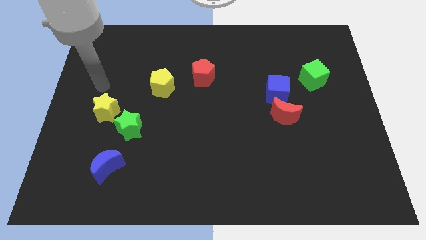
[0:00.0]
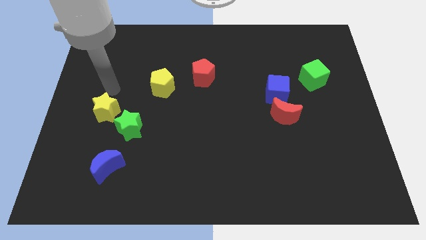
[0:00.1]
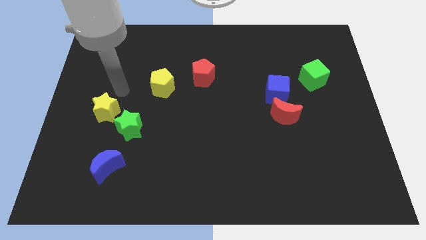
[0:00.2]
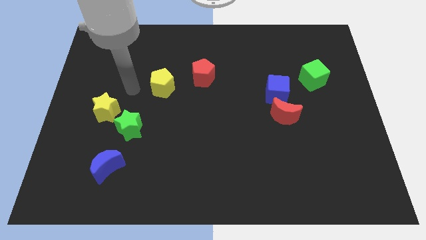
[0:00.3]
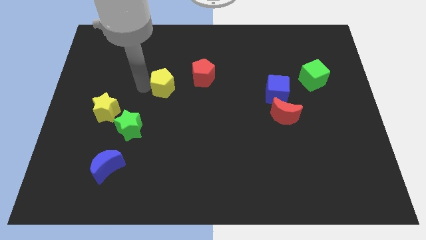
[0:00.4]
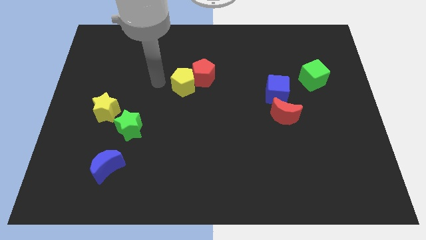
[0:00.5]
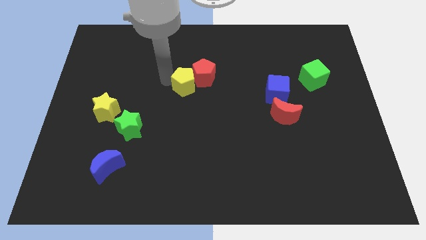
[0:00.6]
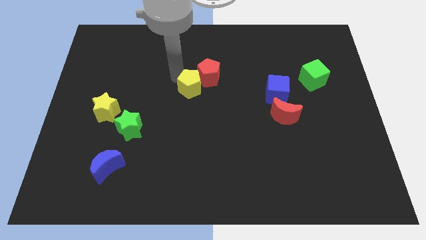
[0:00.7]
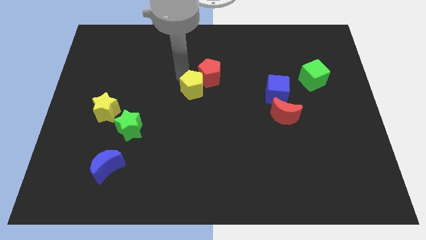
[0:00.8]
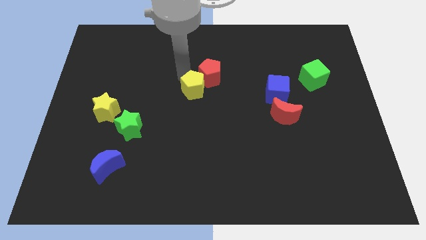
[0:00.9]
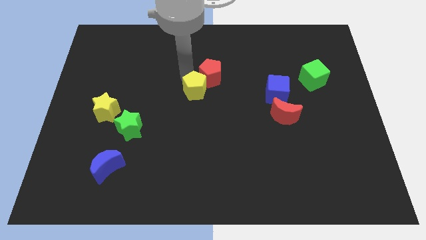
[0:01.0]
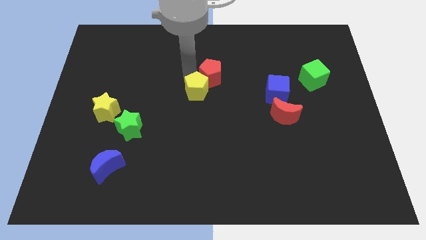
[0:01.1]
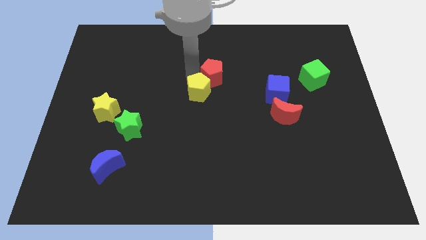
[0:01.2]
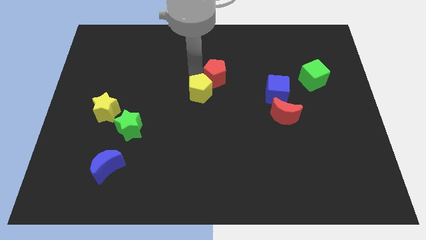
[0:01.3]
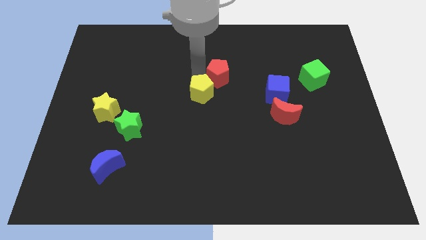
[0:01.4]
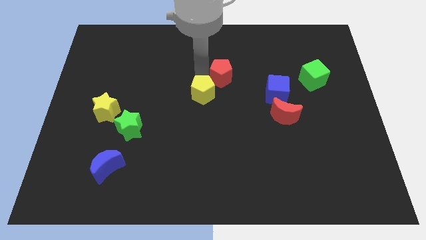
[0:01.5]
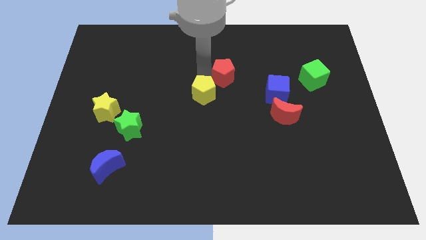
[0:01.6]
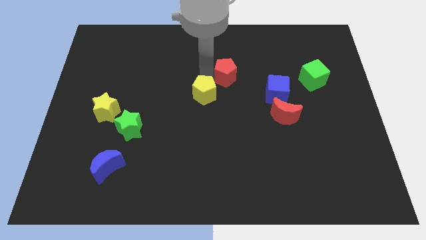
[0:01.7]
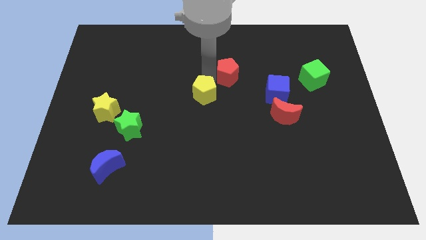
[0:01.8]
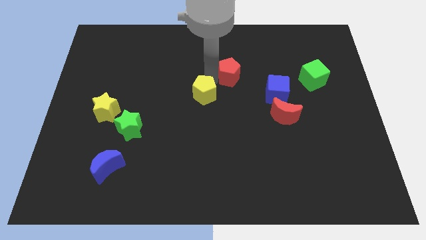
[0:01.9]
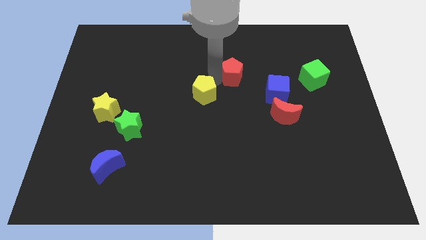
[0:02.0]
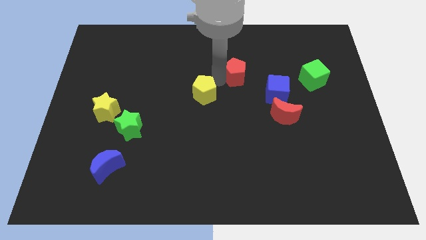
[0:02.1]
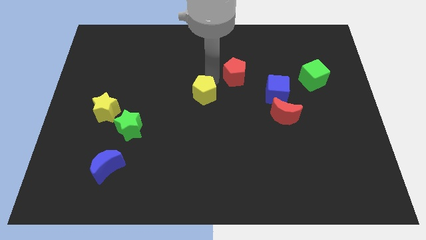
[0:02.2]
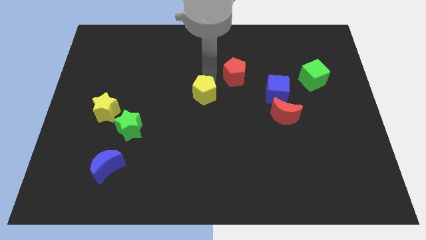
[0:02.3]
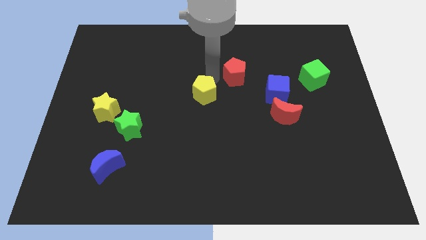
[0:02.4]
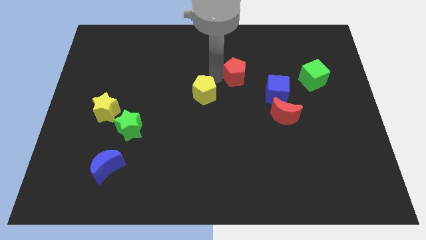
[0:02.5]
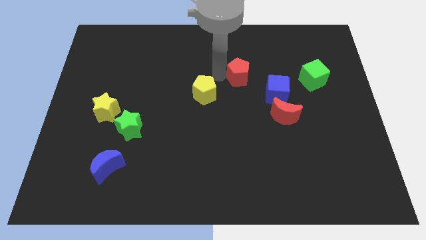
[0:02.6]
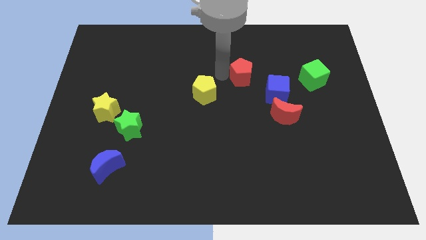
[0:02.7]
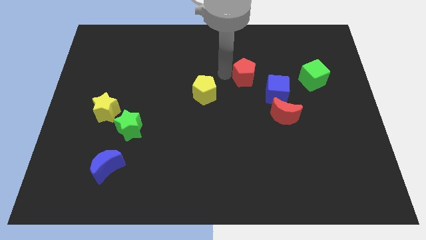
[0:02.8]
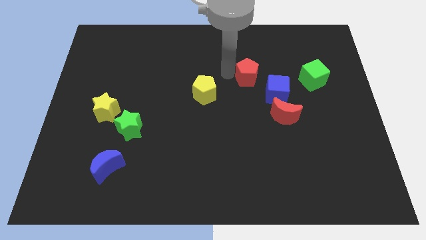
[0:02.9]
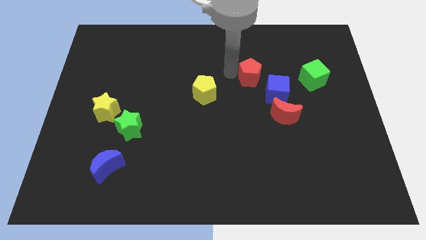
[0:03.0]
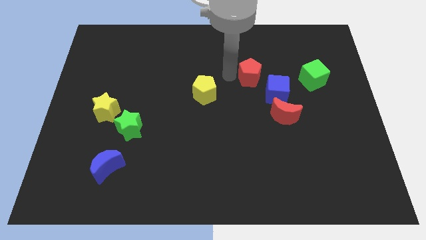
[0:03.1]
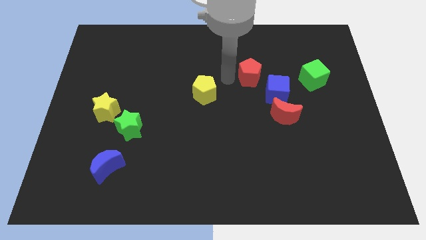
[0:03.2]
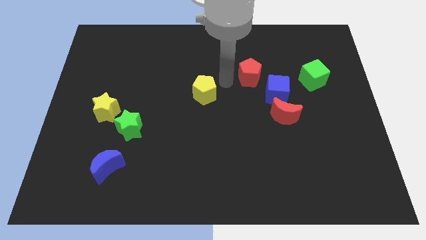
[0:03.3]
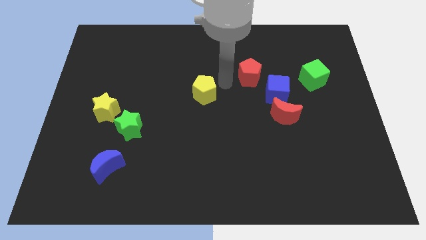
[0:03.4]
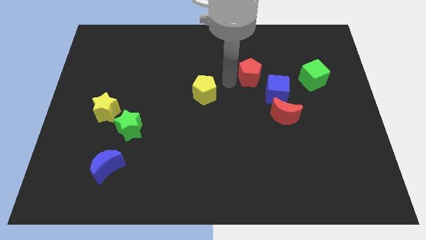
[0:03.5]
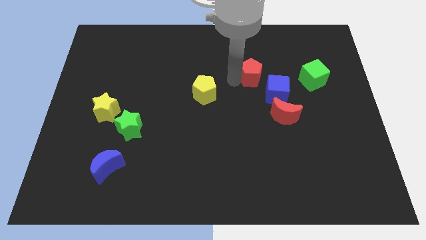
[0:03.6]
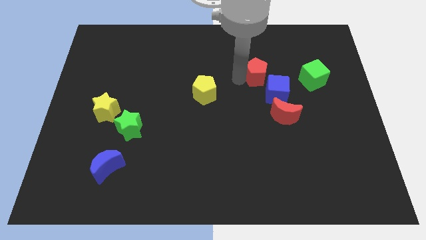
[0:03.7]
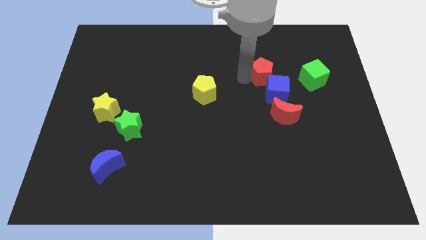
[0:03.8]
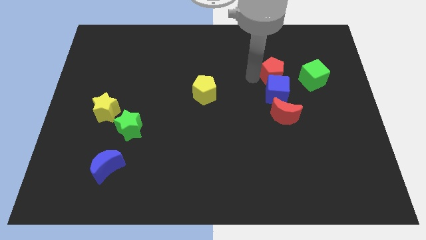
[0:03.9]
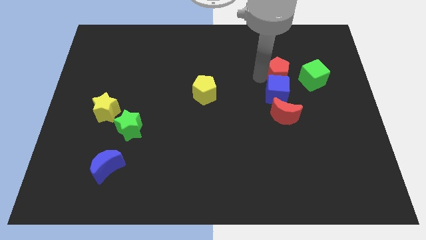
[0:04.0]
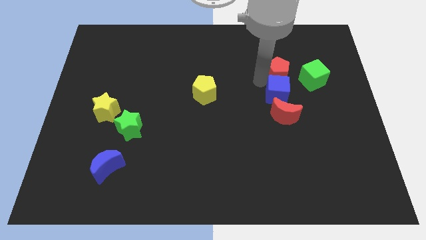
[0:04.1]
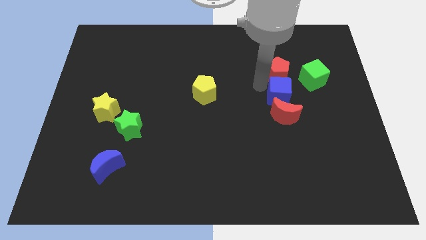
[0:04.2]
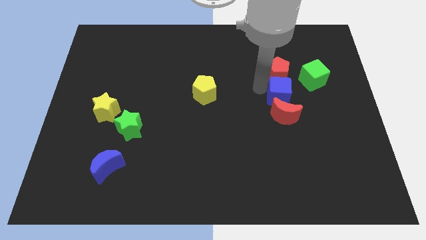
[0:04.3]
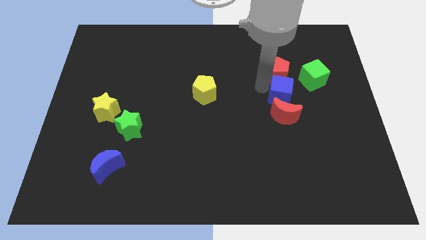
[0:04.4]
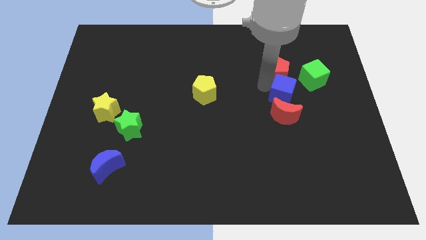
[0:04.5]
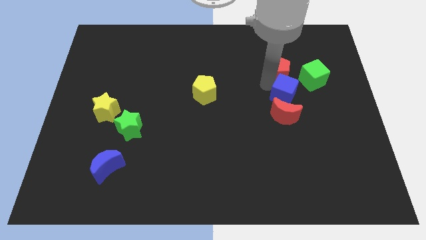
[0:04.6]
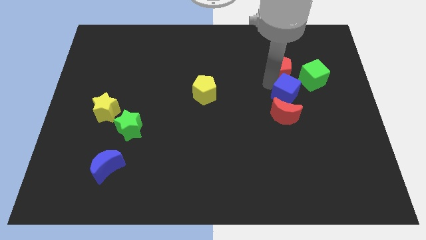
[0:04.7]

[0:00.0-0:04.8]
push the red pentagon to the top left of the green cube

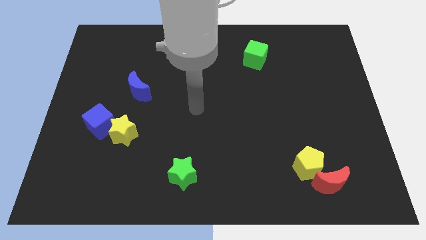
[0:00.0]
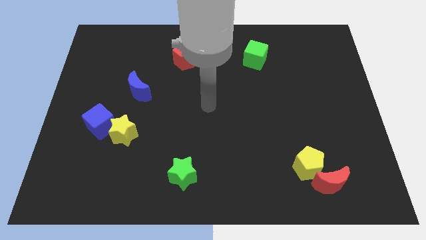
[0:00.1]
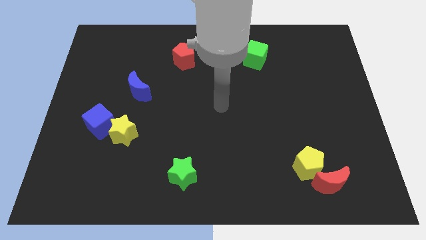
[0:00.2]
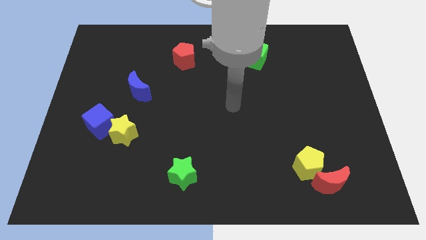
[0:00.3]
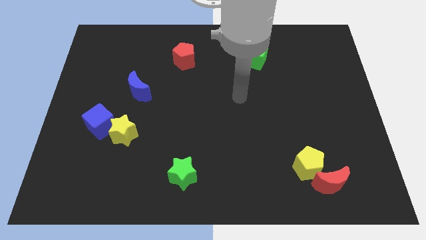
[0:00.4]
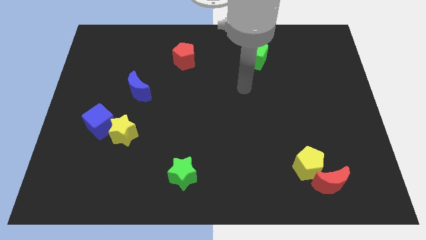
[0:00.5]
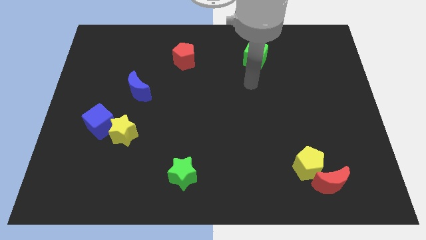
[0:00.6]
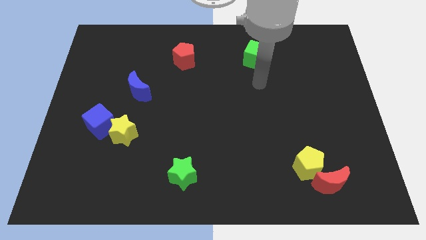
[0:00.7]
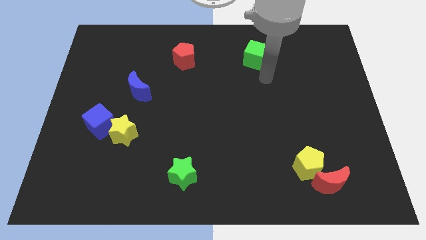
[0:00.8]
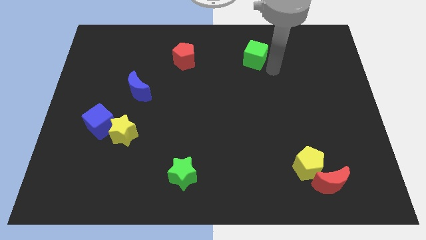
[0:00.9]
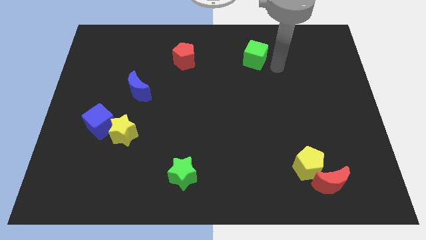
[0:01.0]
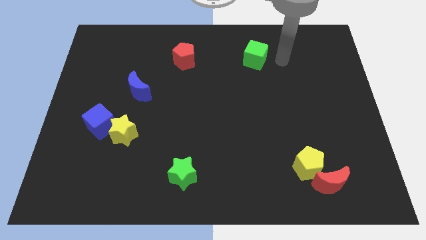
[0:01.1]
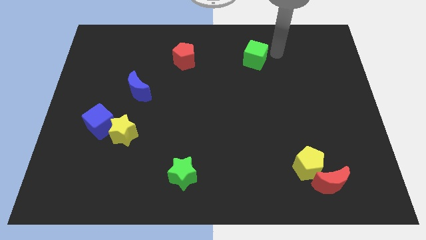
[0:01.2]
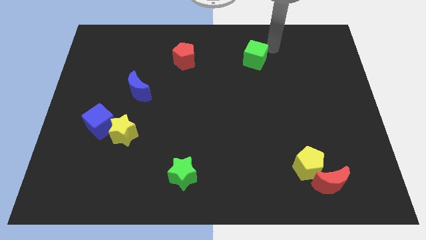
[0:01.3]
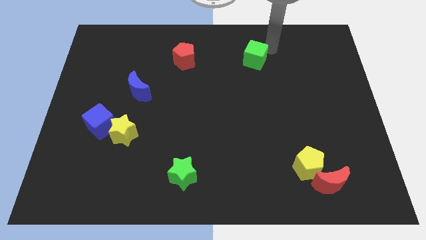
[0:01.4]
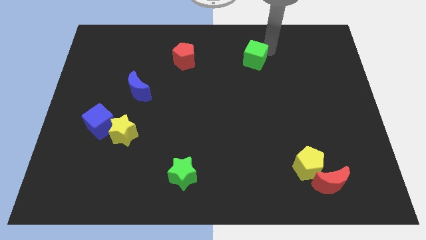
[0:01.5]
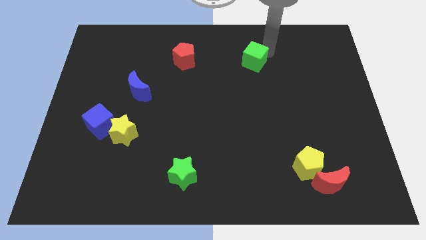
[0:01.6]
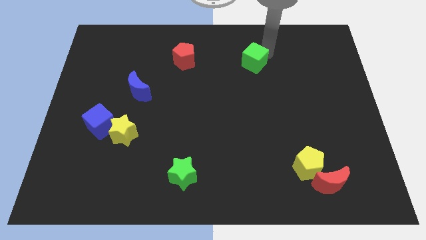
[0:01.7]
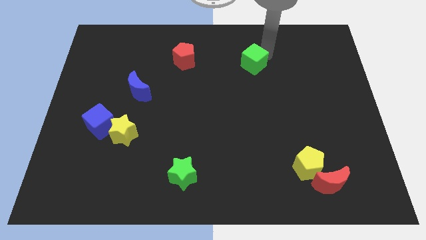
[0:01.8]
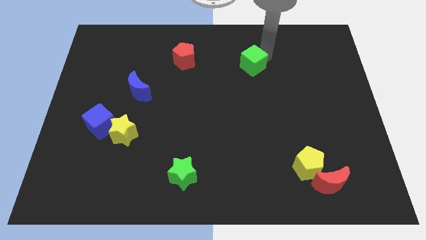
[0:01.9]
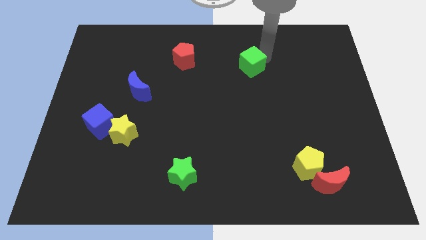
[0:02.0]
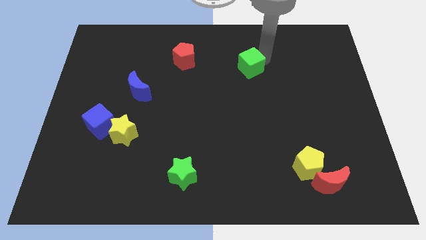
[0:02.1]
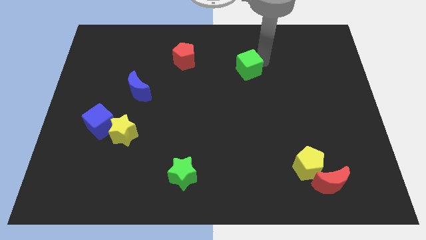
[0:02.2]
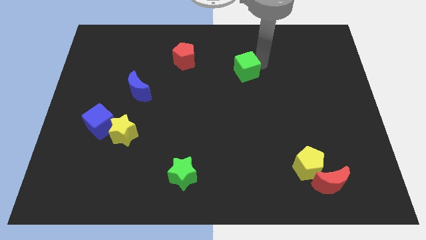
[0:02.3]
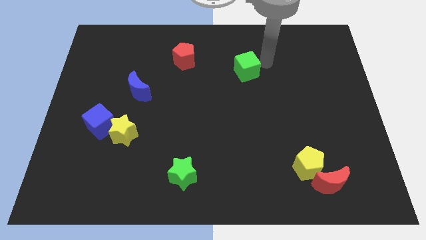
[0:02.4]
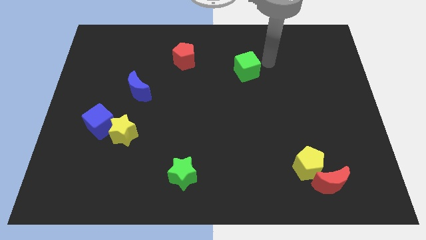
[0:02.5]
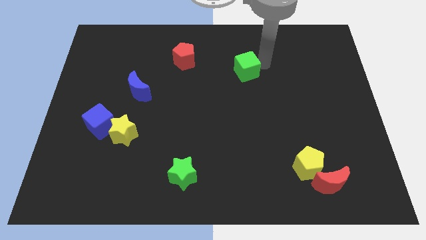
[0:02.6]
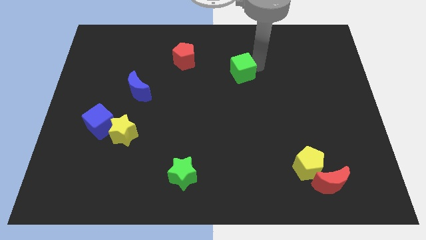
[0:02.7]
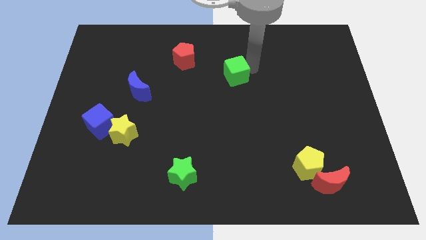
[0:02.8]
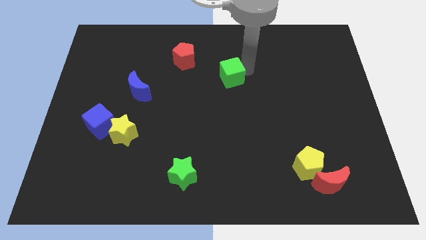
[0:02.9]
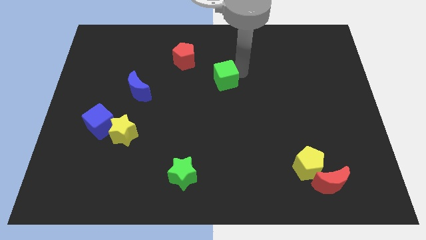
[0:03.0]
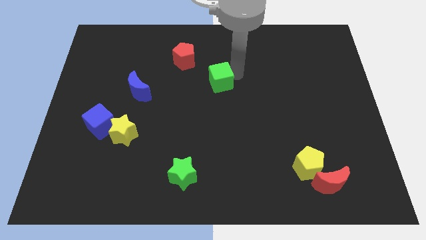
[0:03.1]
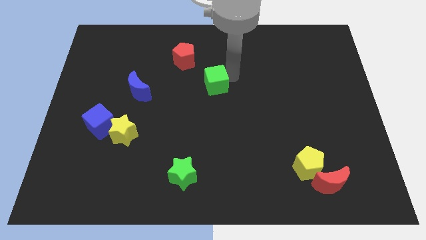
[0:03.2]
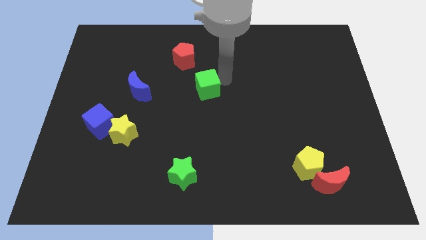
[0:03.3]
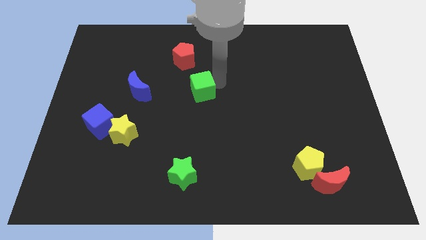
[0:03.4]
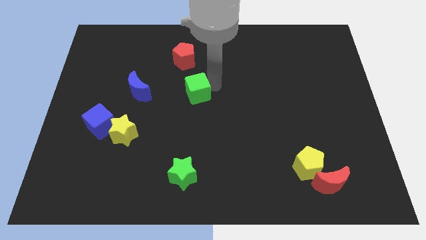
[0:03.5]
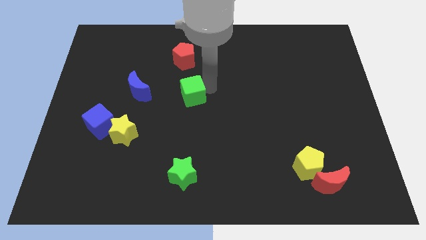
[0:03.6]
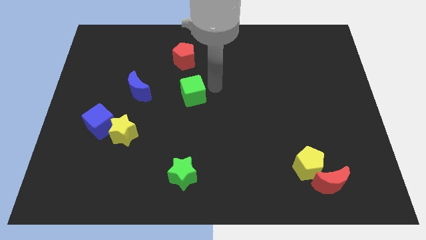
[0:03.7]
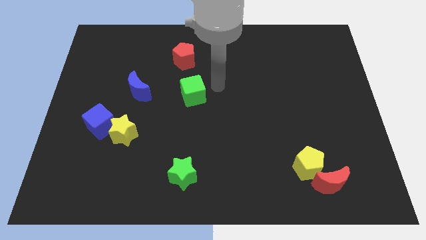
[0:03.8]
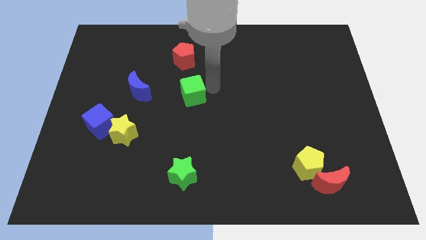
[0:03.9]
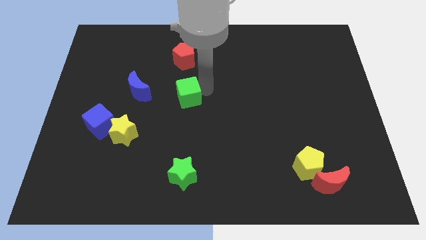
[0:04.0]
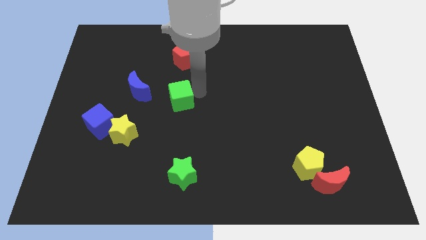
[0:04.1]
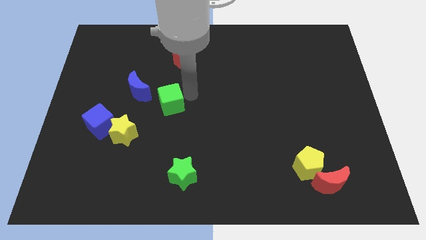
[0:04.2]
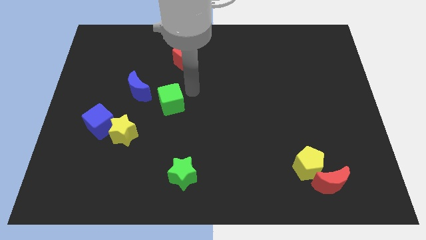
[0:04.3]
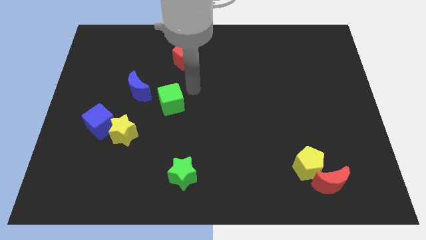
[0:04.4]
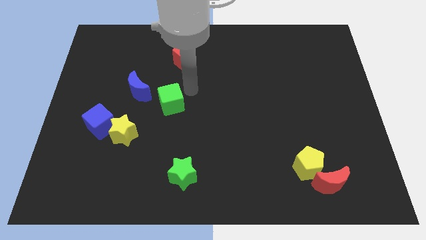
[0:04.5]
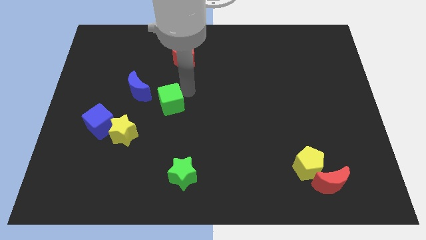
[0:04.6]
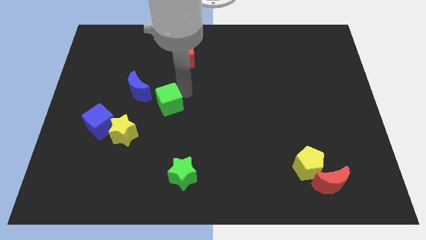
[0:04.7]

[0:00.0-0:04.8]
push the green cube to the top right side of the yellow star
